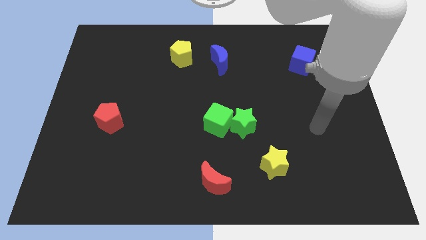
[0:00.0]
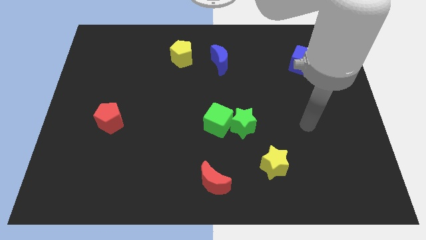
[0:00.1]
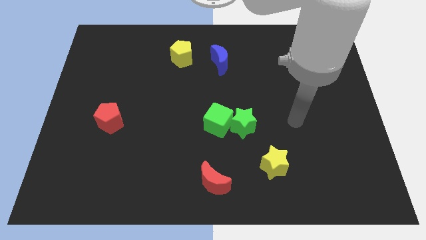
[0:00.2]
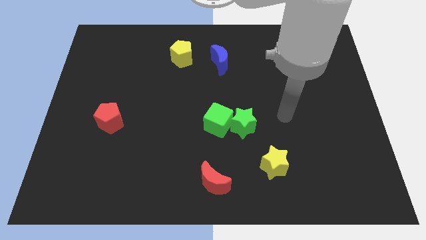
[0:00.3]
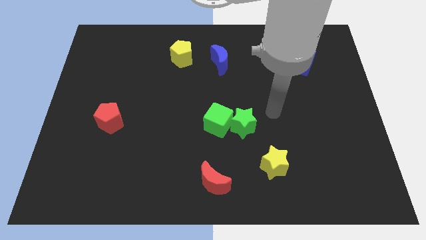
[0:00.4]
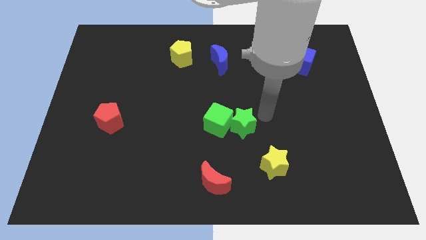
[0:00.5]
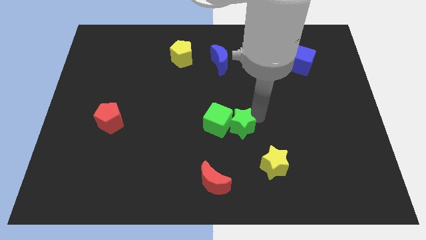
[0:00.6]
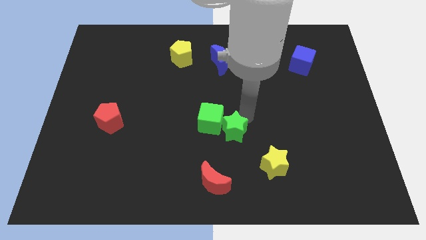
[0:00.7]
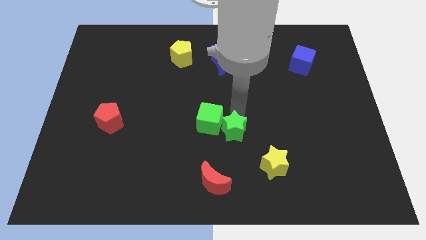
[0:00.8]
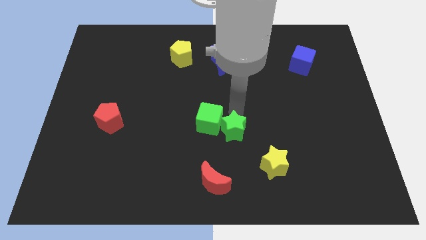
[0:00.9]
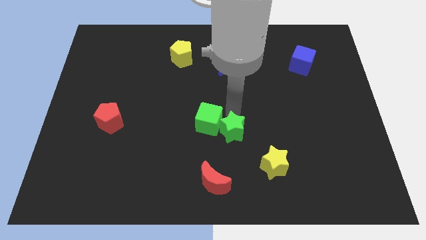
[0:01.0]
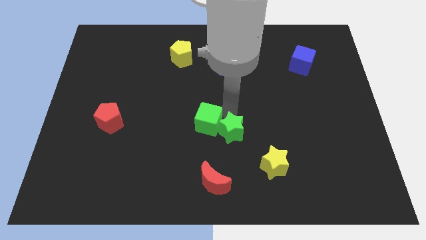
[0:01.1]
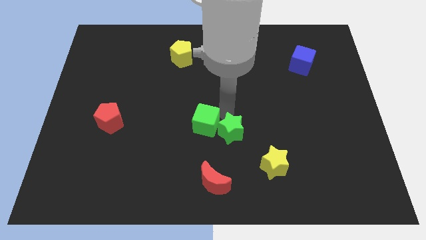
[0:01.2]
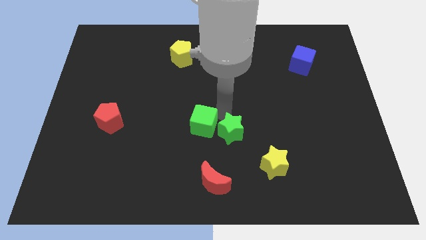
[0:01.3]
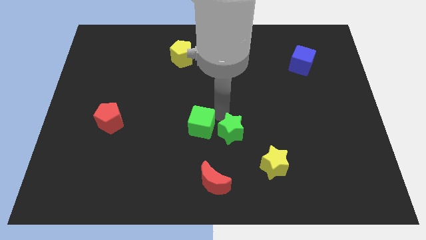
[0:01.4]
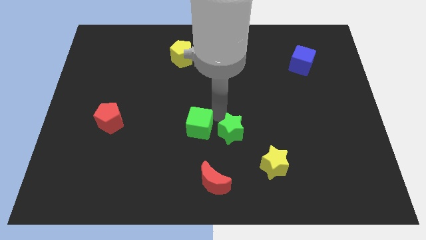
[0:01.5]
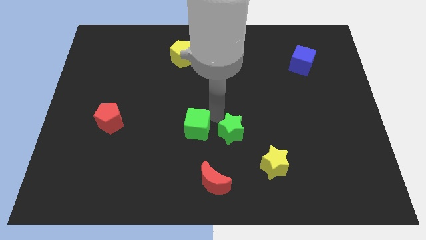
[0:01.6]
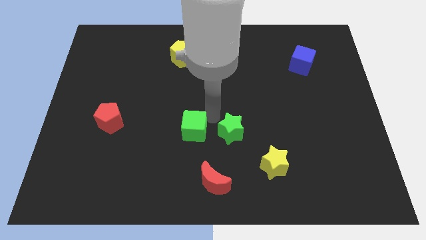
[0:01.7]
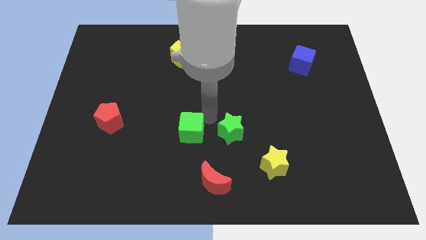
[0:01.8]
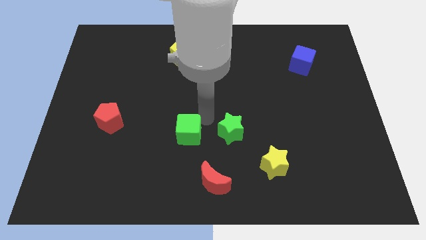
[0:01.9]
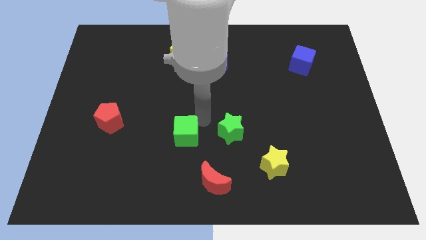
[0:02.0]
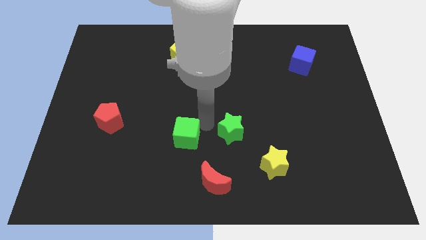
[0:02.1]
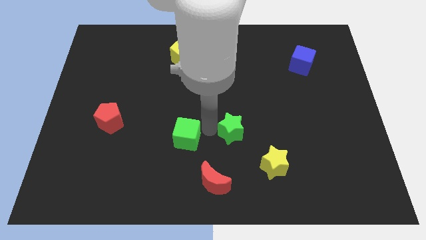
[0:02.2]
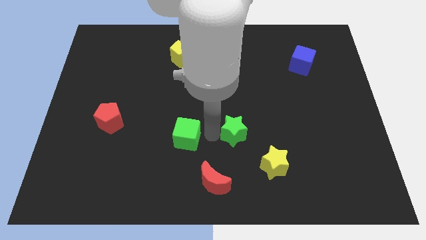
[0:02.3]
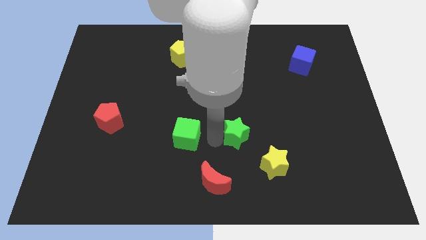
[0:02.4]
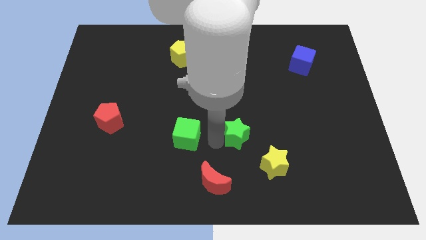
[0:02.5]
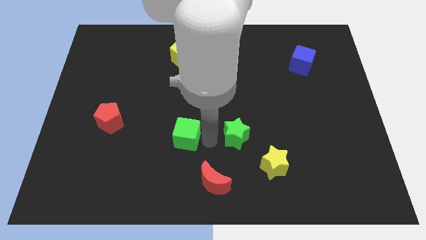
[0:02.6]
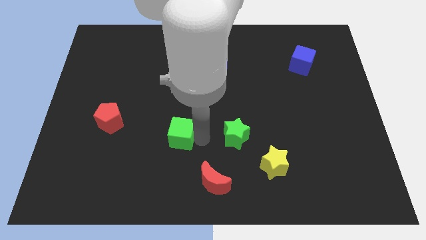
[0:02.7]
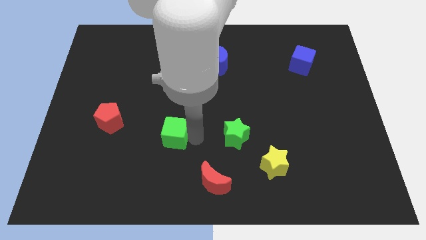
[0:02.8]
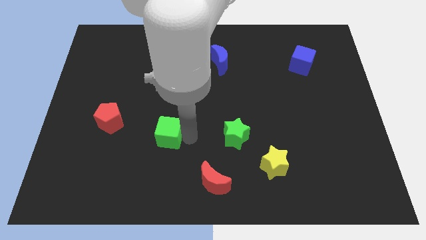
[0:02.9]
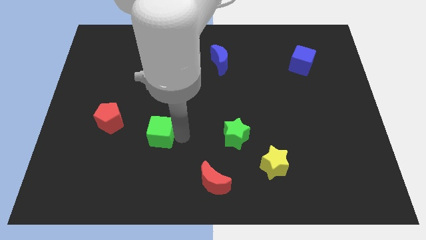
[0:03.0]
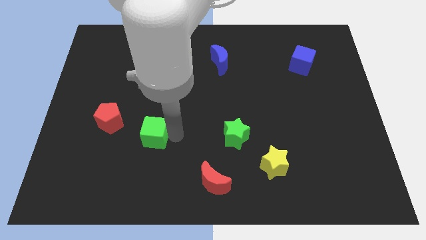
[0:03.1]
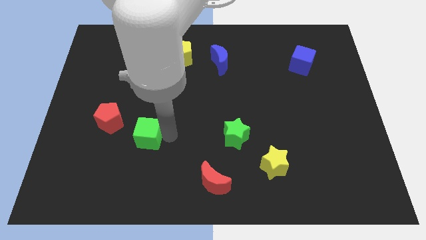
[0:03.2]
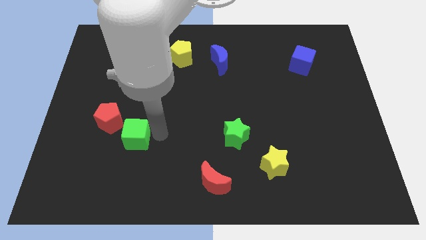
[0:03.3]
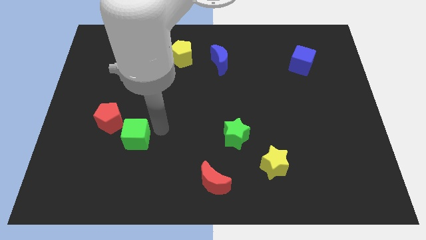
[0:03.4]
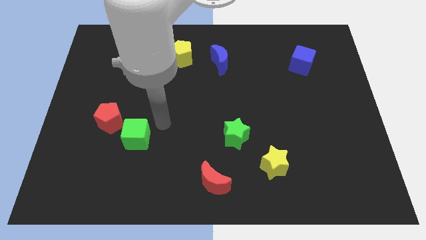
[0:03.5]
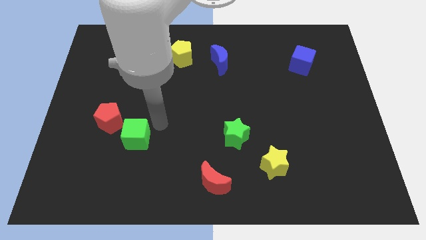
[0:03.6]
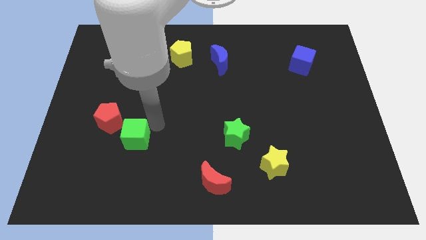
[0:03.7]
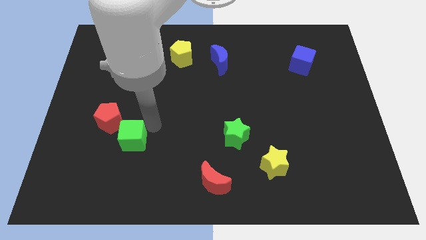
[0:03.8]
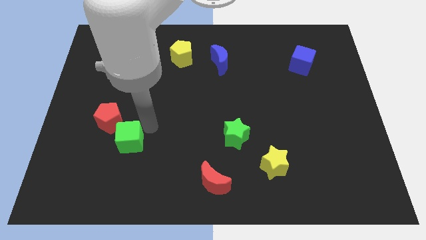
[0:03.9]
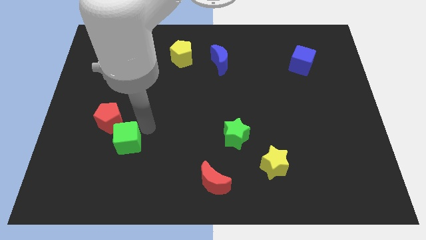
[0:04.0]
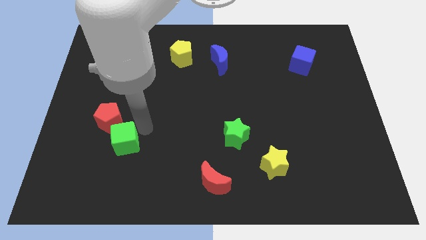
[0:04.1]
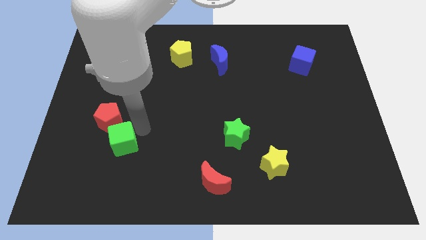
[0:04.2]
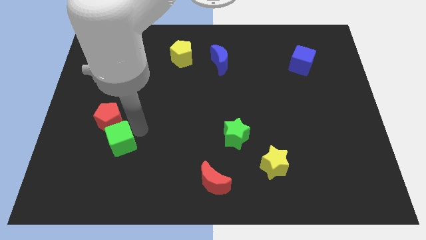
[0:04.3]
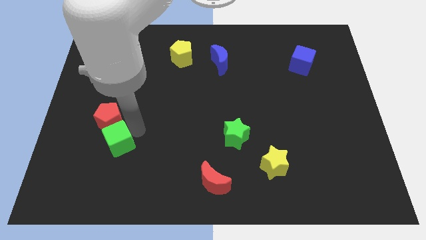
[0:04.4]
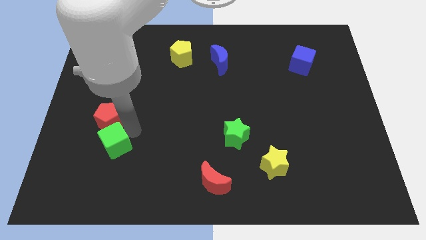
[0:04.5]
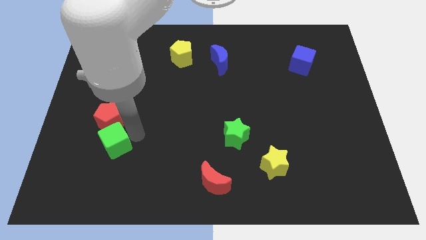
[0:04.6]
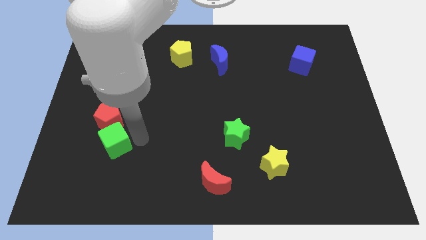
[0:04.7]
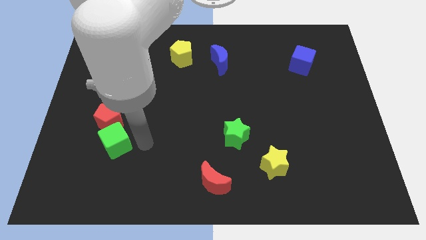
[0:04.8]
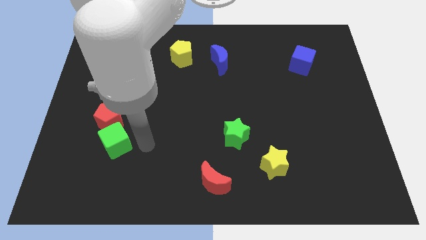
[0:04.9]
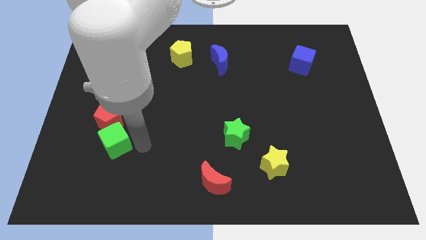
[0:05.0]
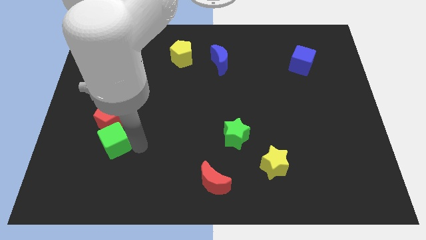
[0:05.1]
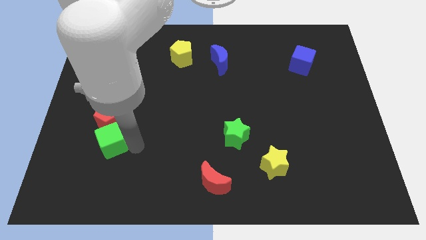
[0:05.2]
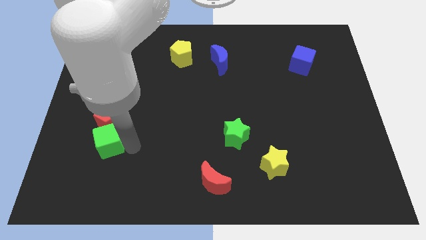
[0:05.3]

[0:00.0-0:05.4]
put the green cube to the bottom left of the red pentagon
